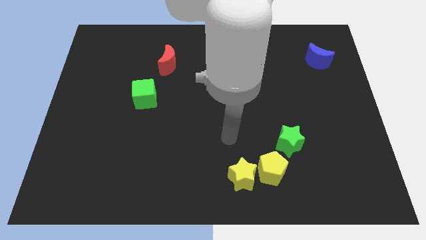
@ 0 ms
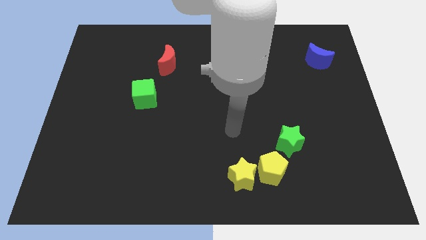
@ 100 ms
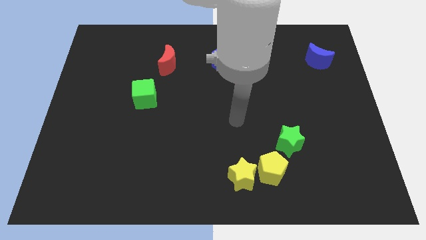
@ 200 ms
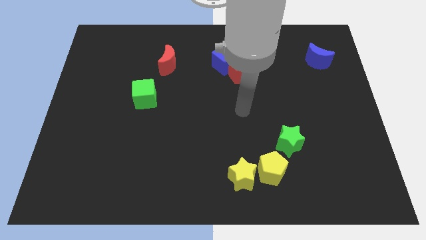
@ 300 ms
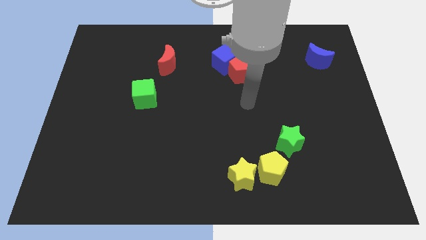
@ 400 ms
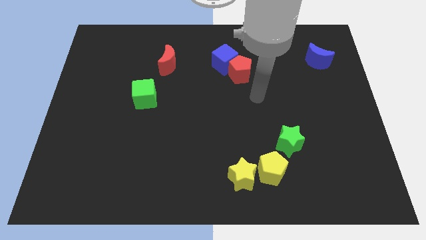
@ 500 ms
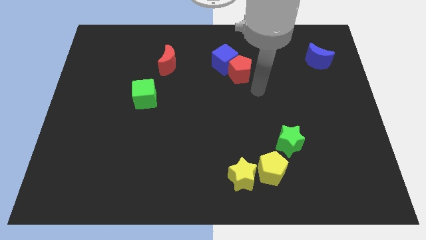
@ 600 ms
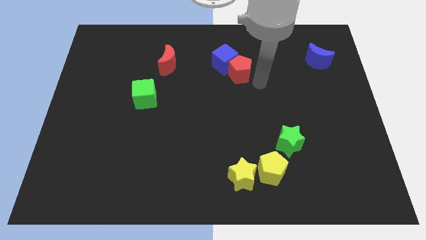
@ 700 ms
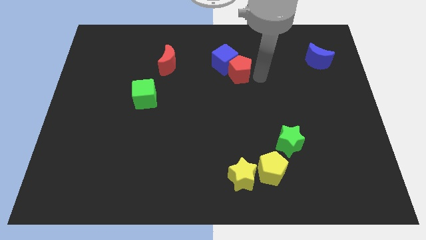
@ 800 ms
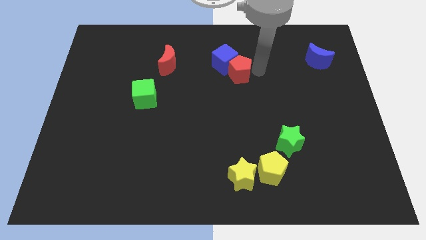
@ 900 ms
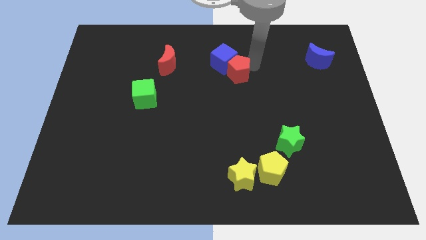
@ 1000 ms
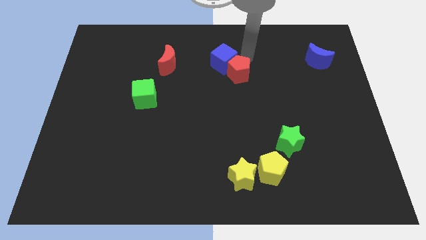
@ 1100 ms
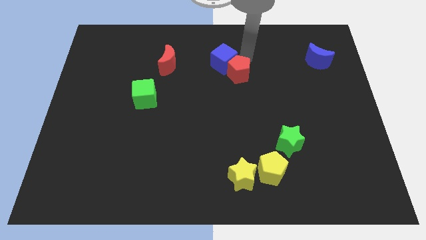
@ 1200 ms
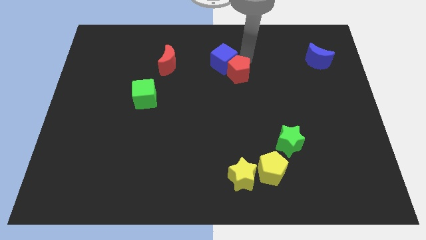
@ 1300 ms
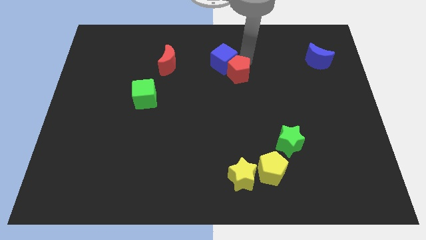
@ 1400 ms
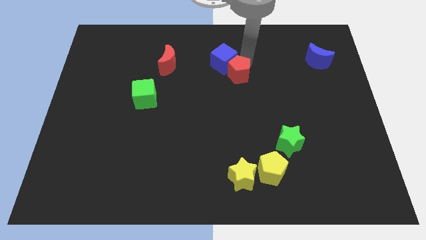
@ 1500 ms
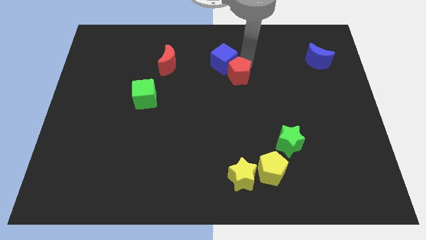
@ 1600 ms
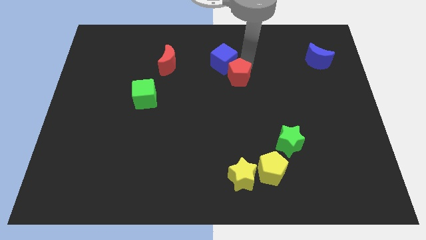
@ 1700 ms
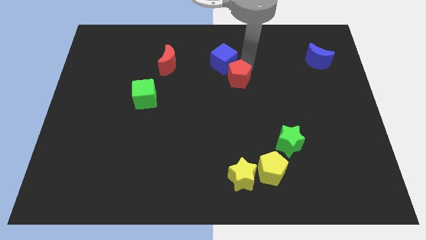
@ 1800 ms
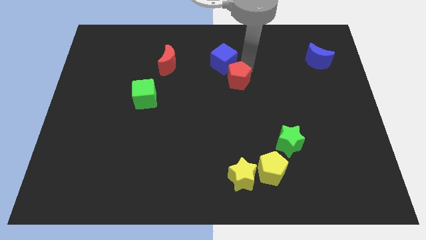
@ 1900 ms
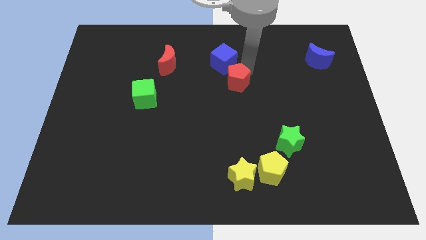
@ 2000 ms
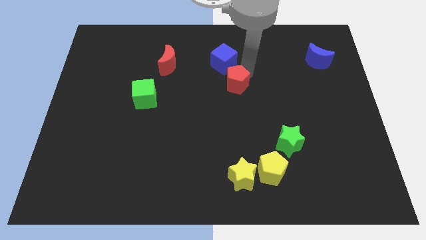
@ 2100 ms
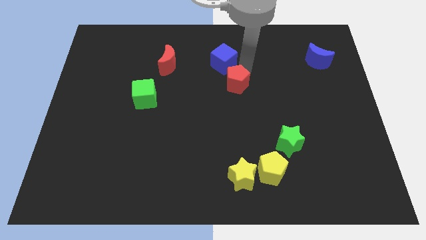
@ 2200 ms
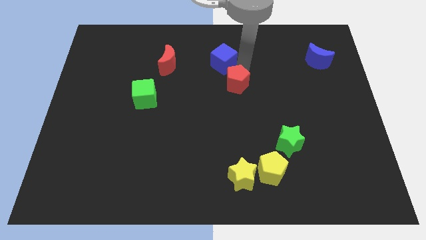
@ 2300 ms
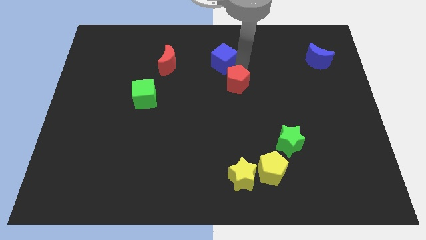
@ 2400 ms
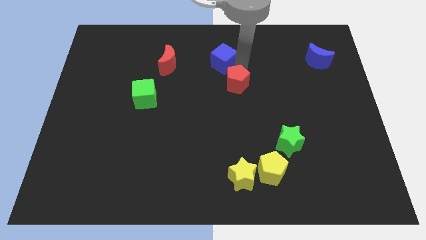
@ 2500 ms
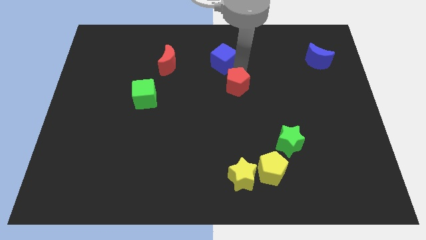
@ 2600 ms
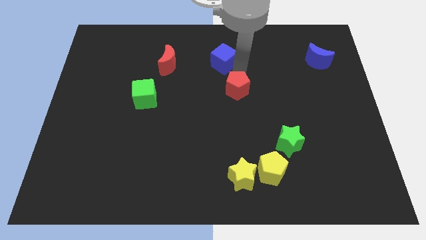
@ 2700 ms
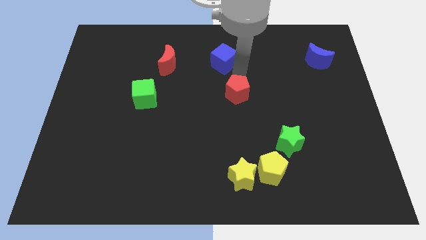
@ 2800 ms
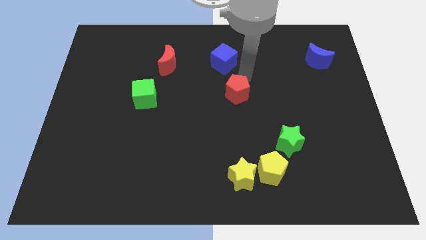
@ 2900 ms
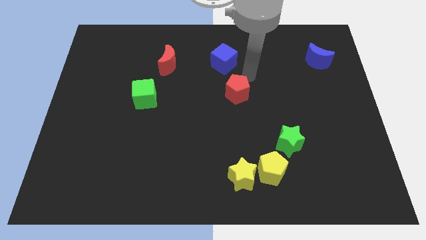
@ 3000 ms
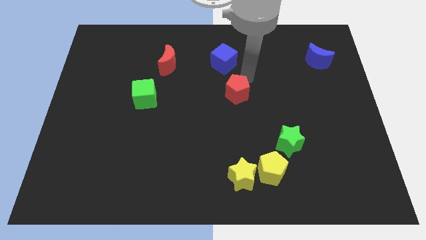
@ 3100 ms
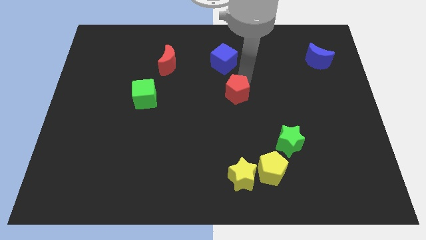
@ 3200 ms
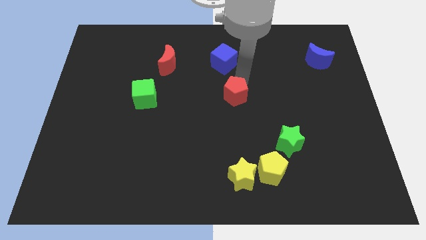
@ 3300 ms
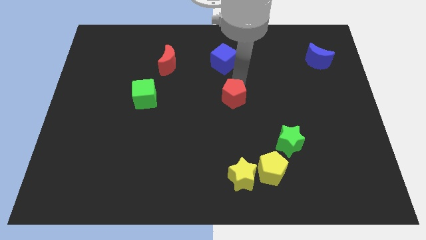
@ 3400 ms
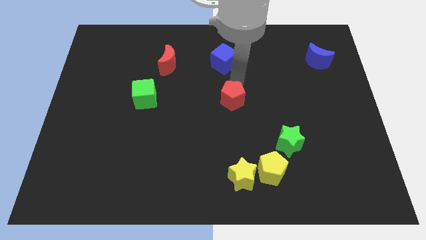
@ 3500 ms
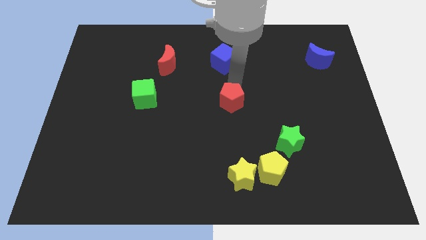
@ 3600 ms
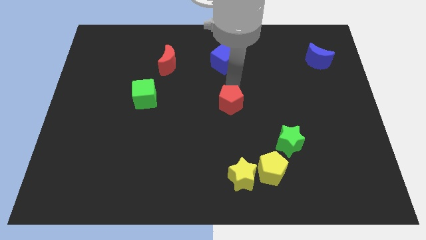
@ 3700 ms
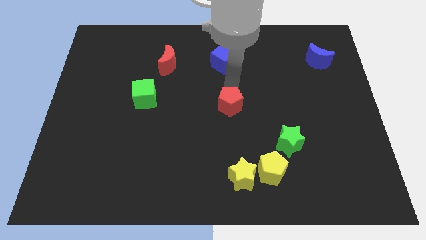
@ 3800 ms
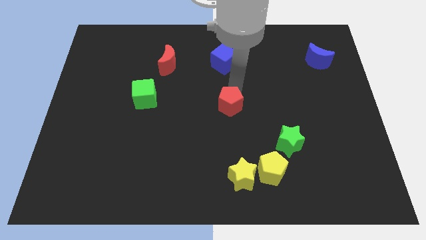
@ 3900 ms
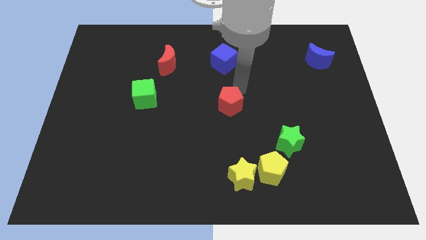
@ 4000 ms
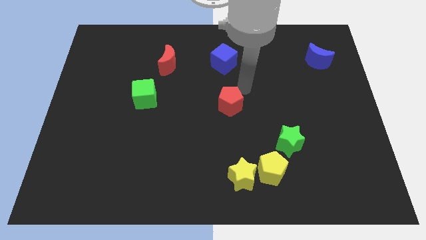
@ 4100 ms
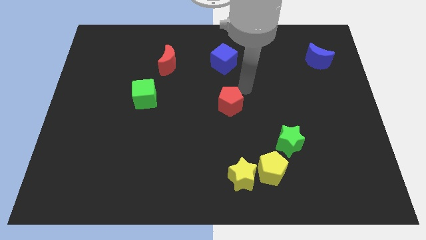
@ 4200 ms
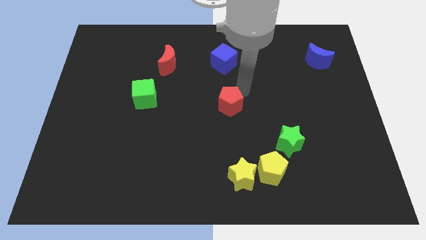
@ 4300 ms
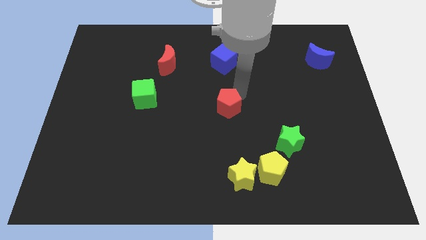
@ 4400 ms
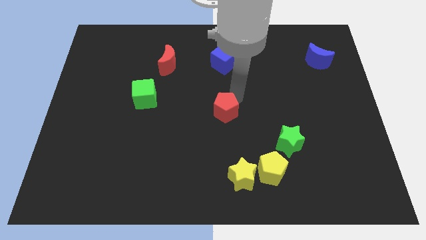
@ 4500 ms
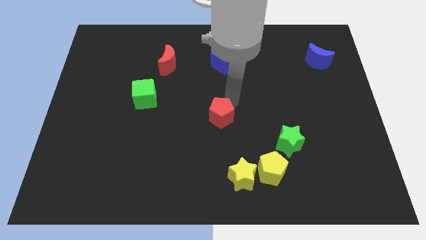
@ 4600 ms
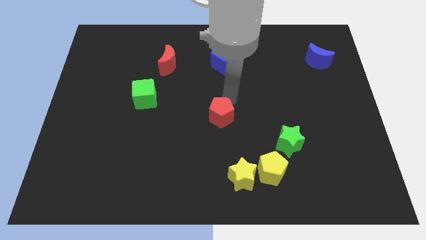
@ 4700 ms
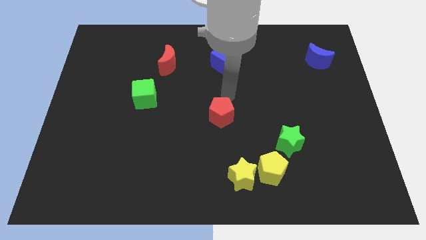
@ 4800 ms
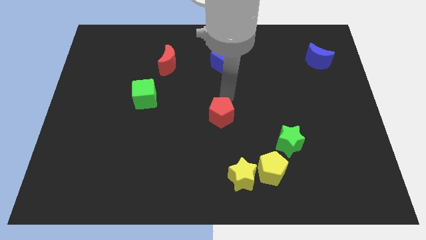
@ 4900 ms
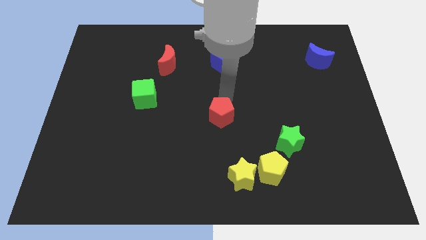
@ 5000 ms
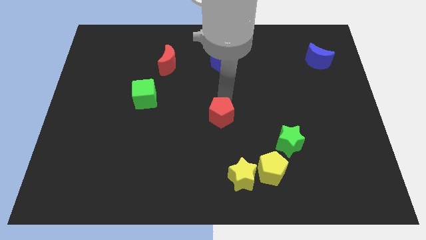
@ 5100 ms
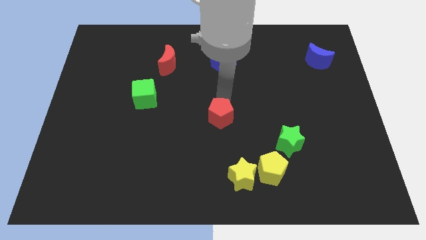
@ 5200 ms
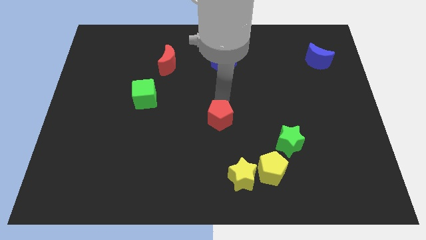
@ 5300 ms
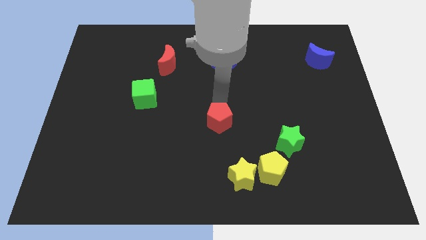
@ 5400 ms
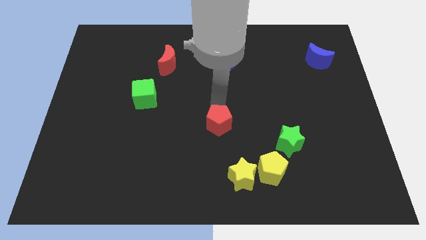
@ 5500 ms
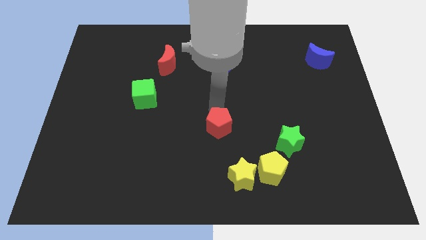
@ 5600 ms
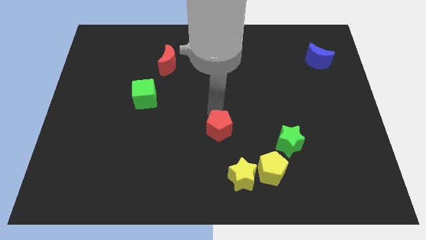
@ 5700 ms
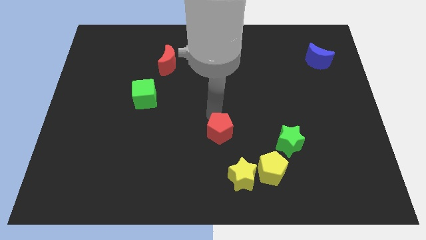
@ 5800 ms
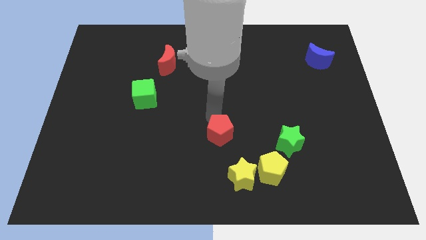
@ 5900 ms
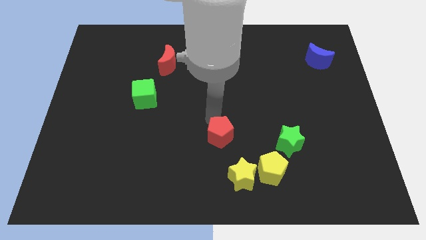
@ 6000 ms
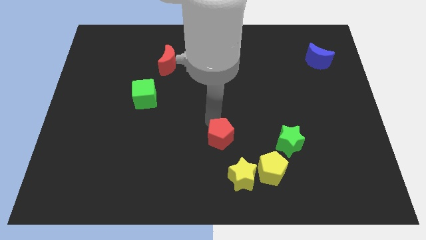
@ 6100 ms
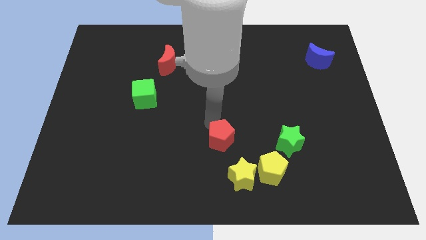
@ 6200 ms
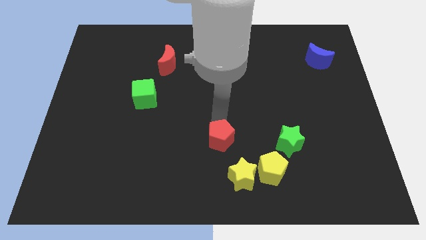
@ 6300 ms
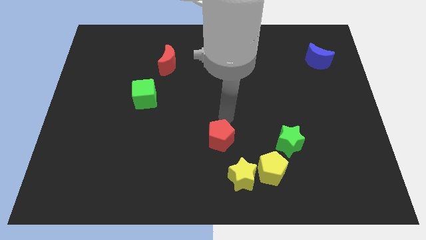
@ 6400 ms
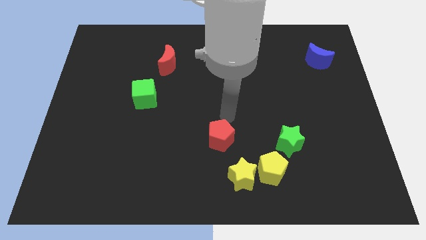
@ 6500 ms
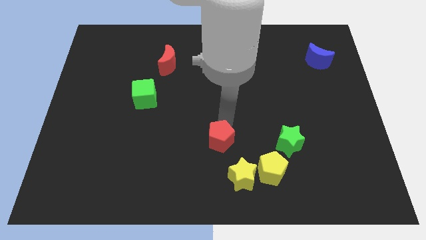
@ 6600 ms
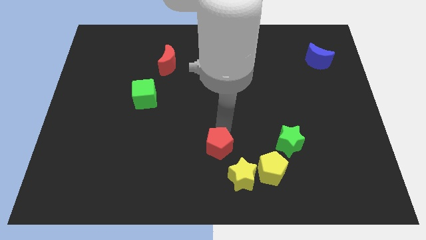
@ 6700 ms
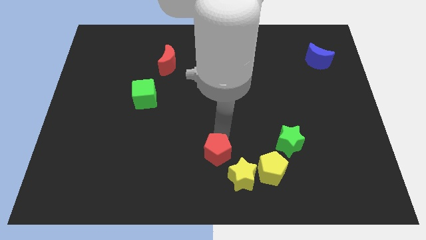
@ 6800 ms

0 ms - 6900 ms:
push the red pentagon to the bottom
